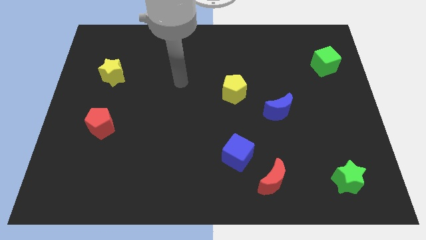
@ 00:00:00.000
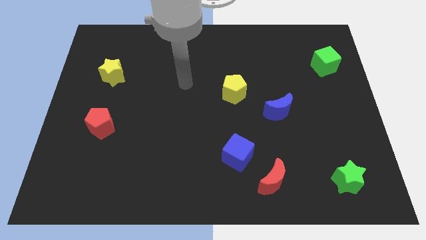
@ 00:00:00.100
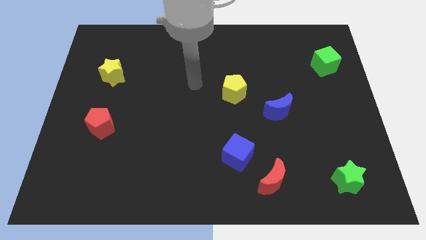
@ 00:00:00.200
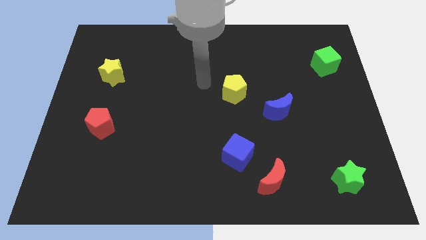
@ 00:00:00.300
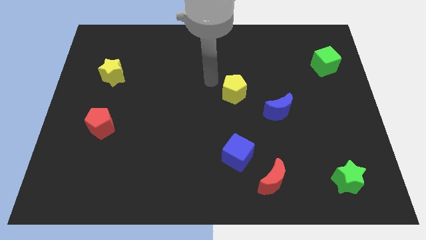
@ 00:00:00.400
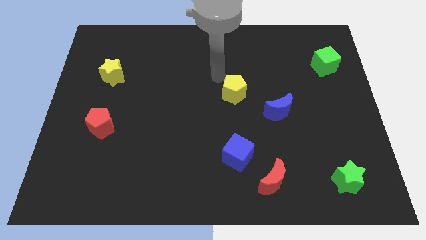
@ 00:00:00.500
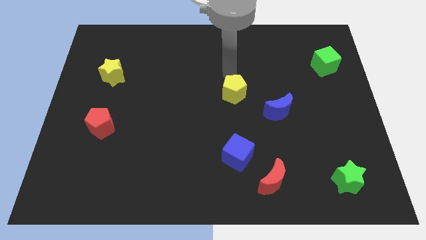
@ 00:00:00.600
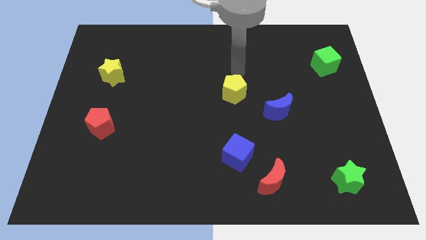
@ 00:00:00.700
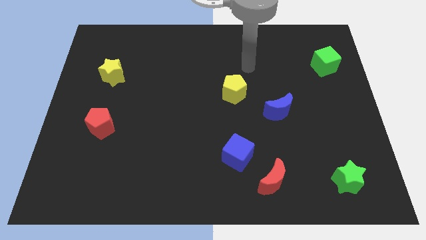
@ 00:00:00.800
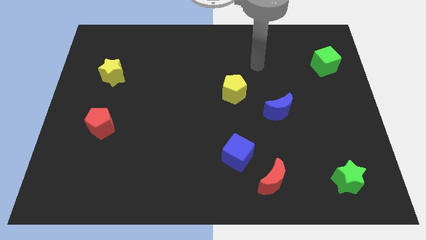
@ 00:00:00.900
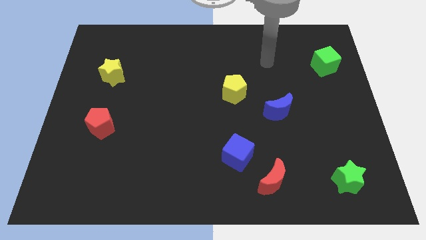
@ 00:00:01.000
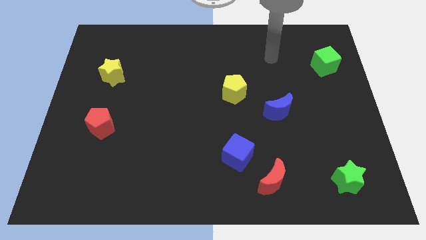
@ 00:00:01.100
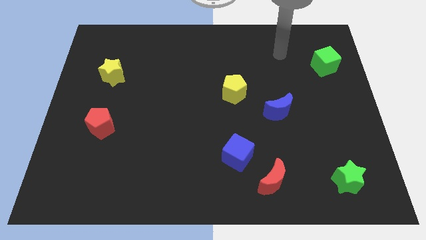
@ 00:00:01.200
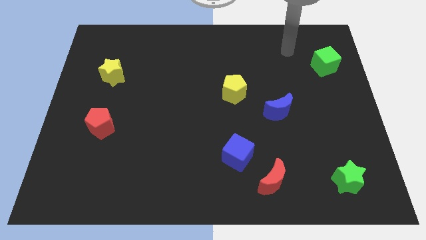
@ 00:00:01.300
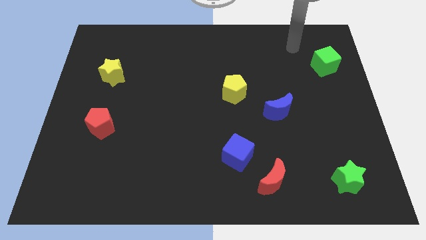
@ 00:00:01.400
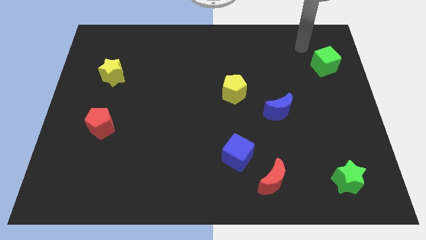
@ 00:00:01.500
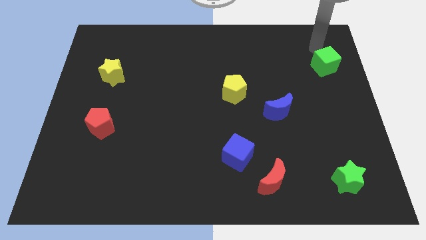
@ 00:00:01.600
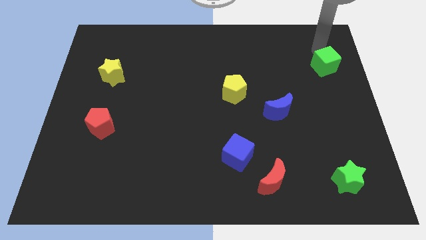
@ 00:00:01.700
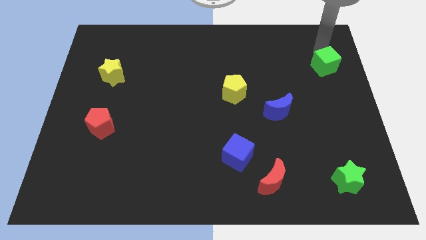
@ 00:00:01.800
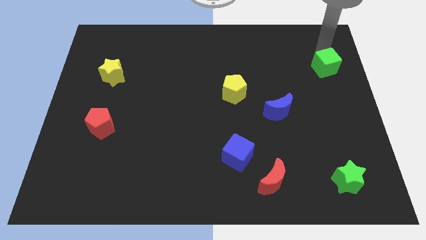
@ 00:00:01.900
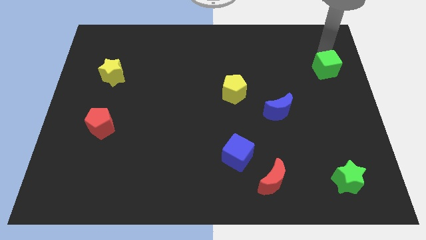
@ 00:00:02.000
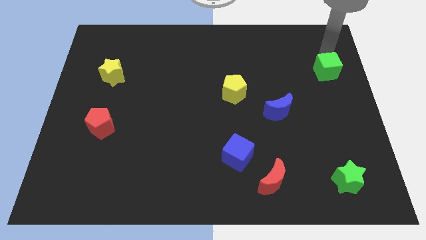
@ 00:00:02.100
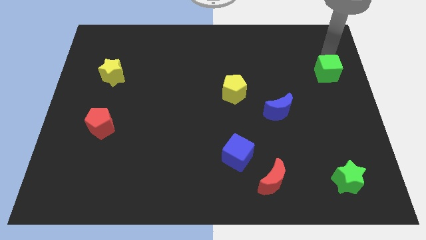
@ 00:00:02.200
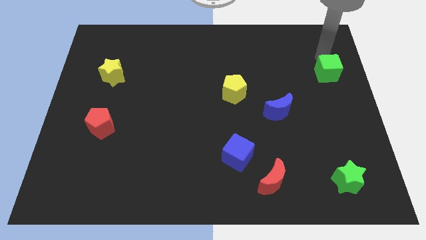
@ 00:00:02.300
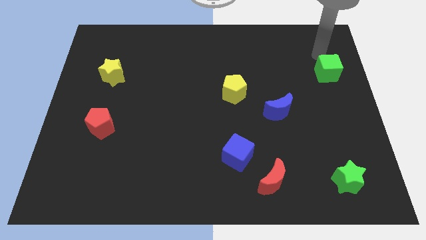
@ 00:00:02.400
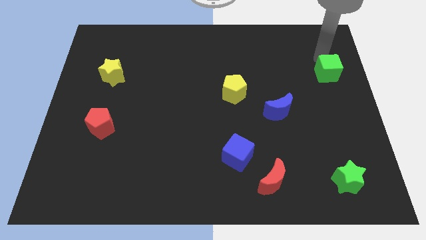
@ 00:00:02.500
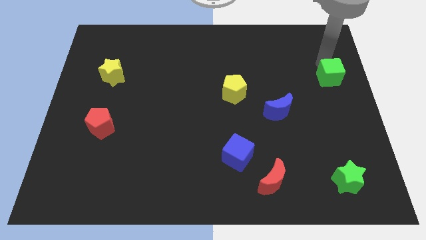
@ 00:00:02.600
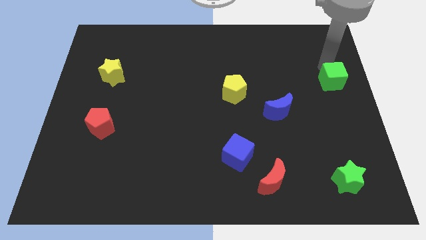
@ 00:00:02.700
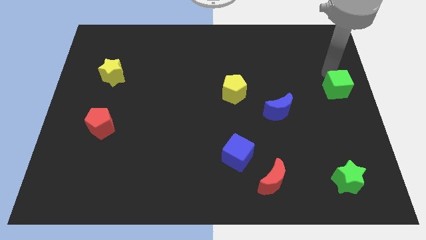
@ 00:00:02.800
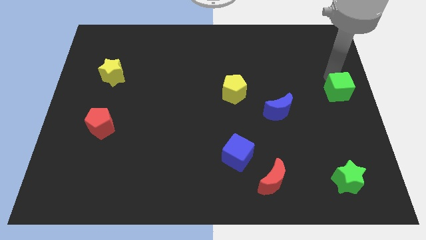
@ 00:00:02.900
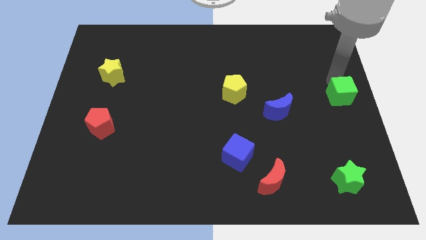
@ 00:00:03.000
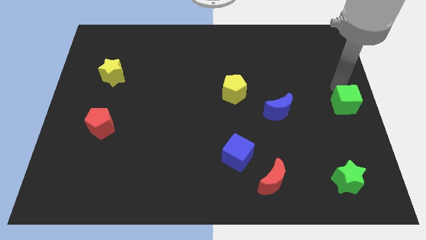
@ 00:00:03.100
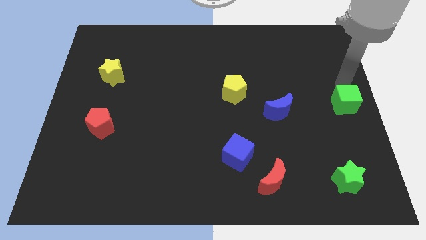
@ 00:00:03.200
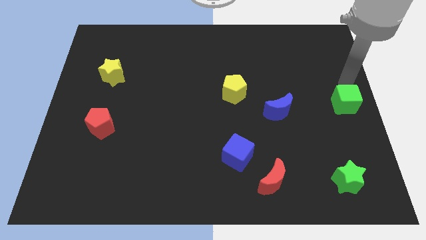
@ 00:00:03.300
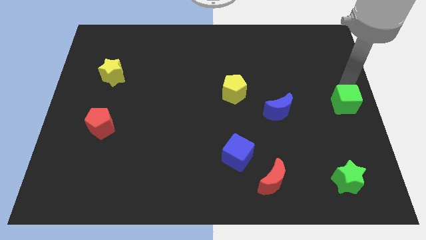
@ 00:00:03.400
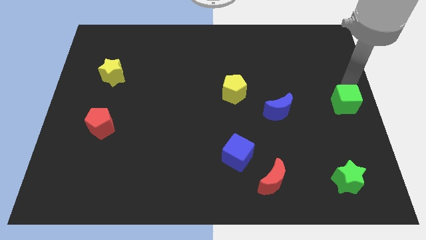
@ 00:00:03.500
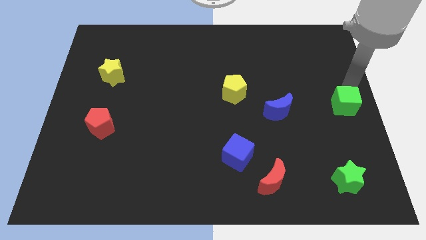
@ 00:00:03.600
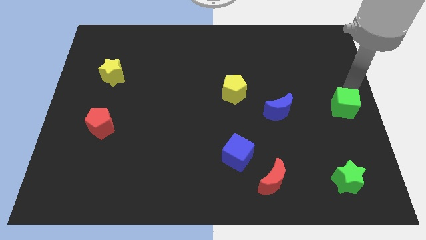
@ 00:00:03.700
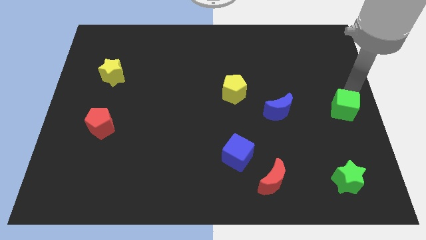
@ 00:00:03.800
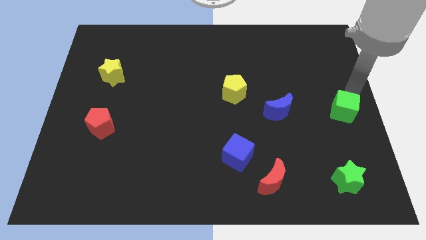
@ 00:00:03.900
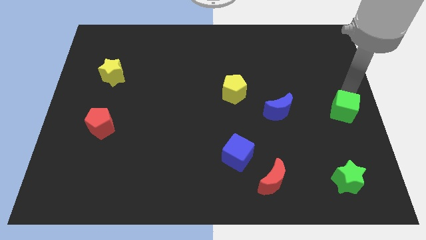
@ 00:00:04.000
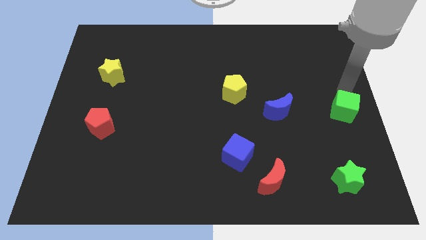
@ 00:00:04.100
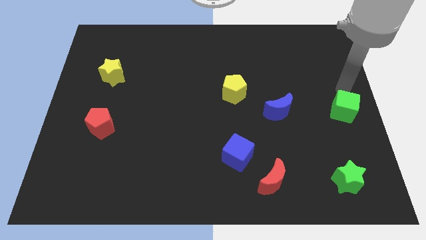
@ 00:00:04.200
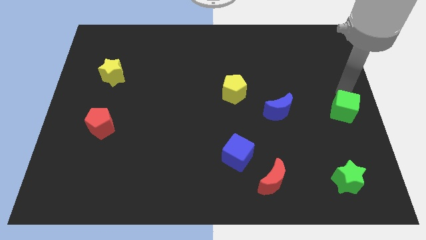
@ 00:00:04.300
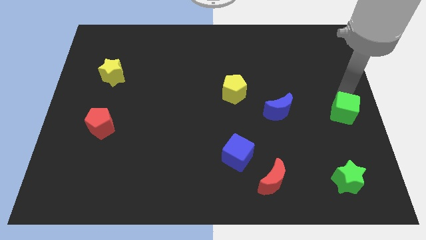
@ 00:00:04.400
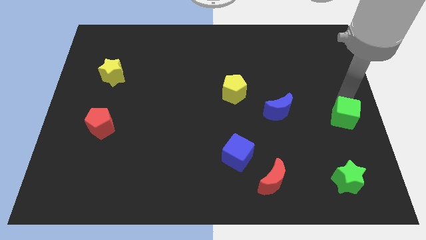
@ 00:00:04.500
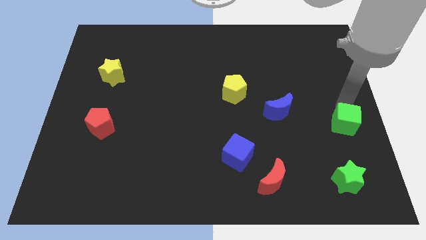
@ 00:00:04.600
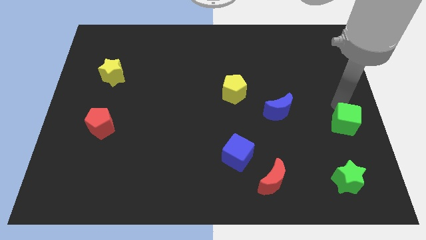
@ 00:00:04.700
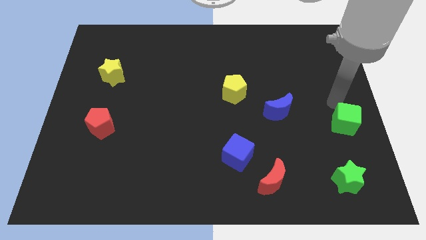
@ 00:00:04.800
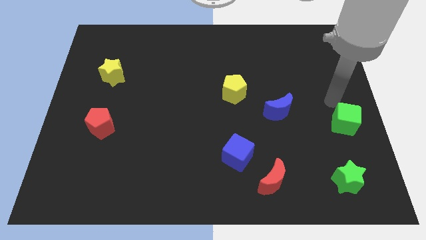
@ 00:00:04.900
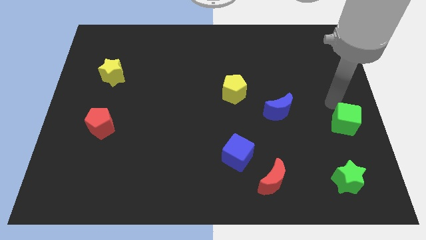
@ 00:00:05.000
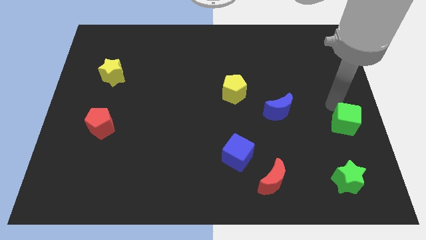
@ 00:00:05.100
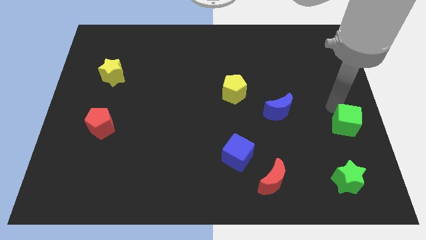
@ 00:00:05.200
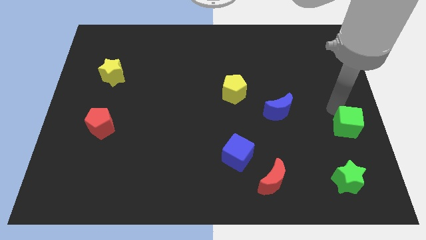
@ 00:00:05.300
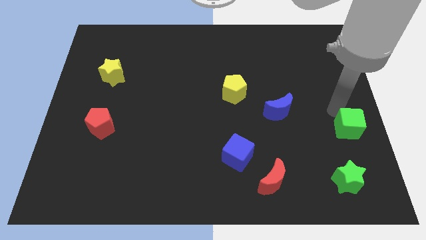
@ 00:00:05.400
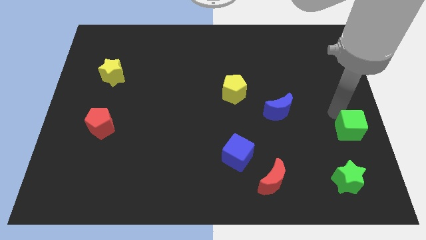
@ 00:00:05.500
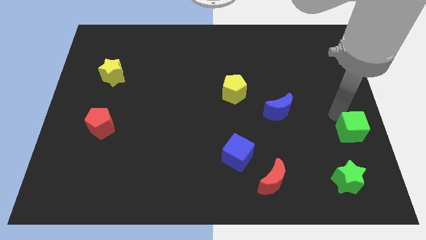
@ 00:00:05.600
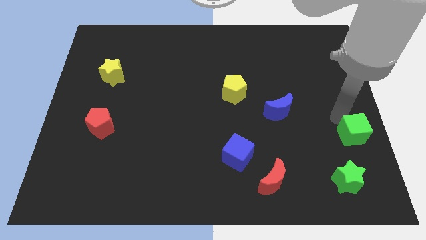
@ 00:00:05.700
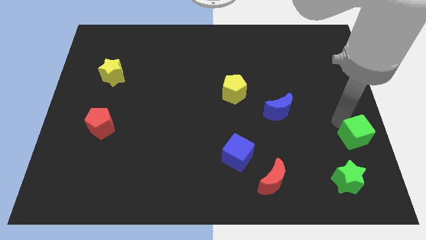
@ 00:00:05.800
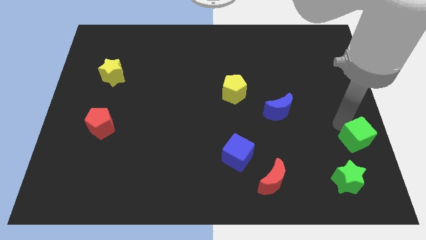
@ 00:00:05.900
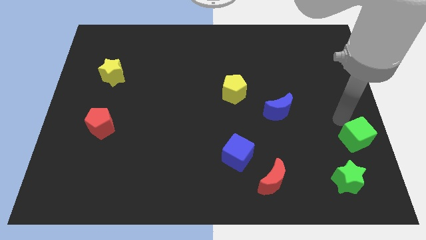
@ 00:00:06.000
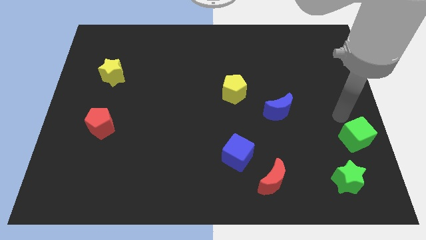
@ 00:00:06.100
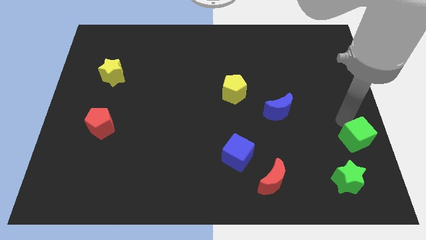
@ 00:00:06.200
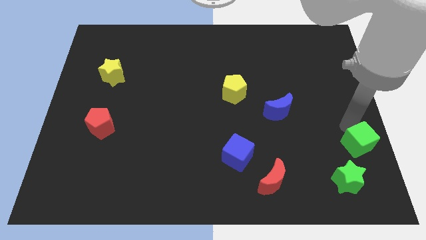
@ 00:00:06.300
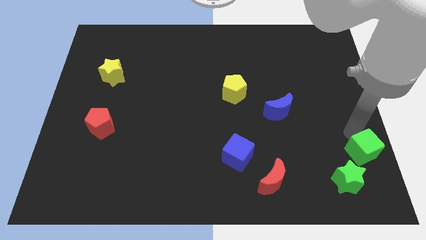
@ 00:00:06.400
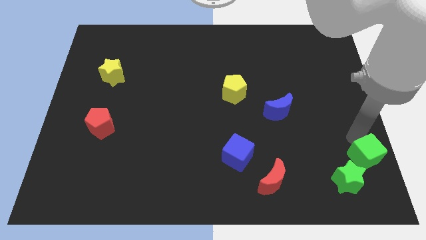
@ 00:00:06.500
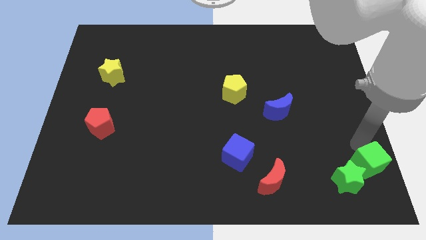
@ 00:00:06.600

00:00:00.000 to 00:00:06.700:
slide the green cube to the bottom right corner
